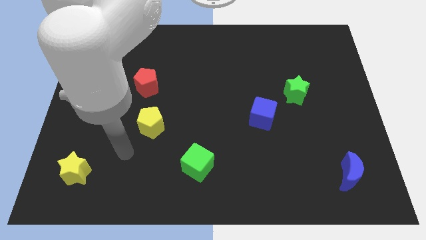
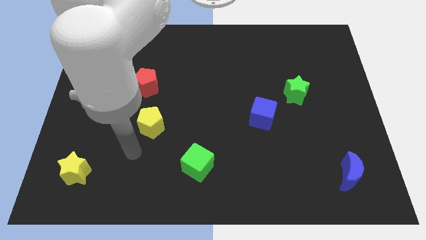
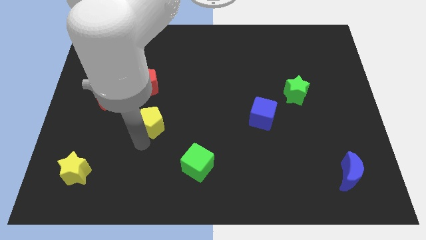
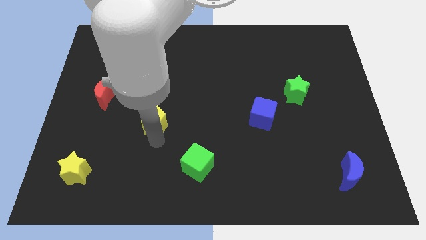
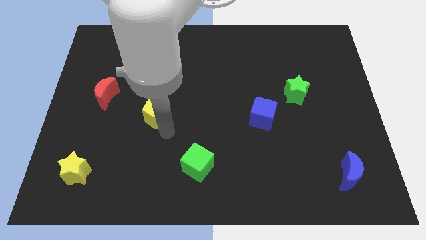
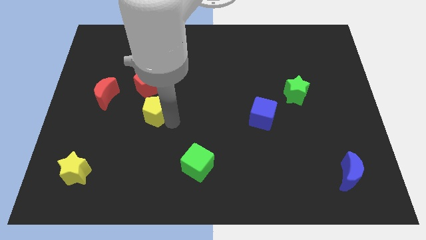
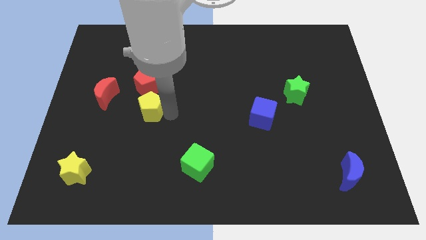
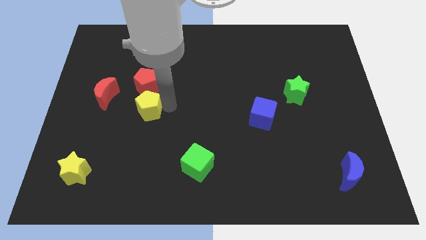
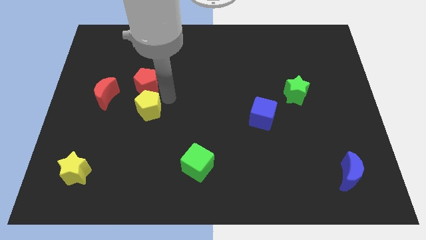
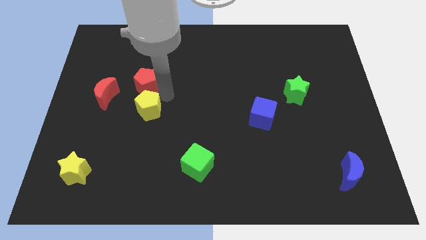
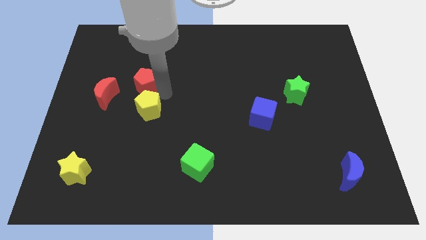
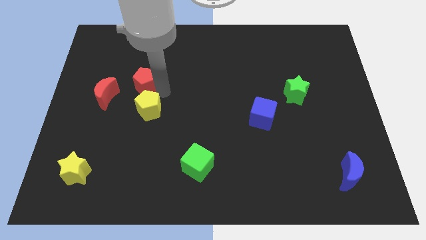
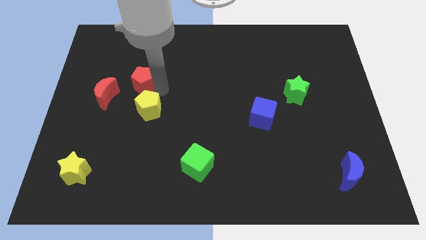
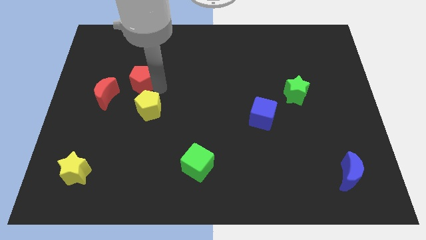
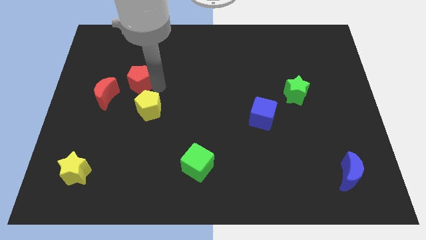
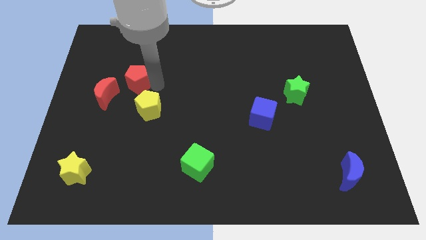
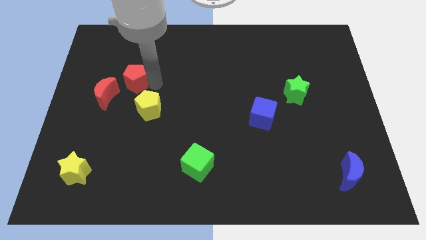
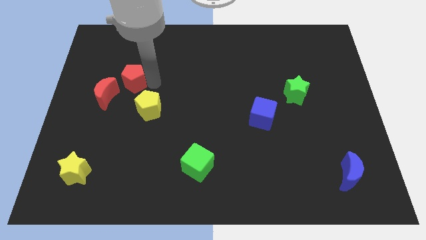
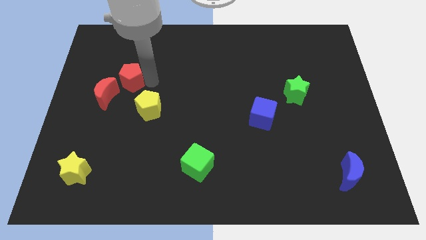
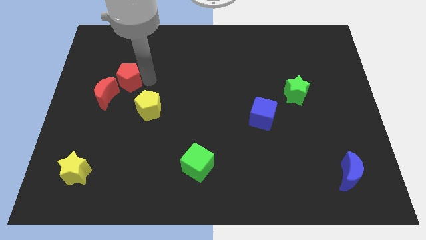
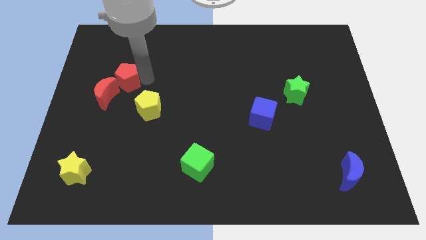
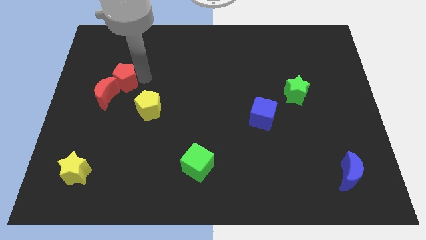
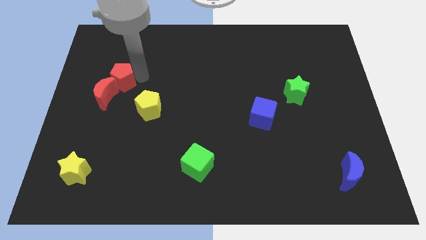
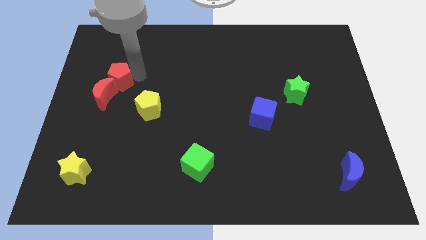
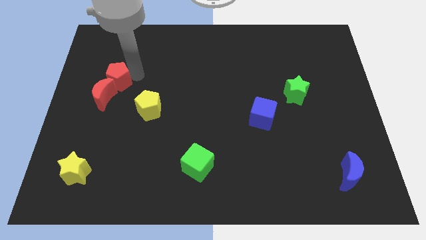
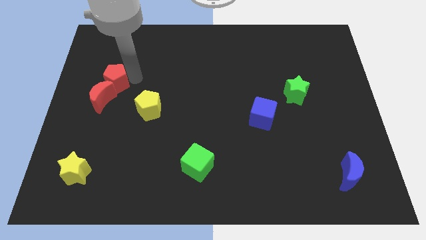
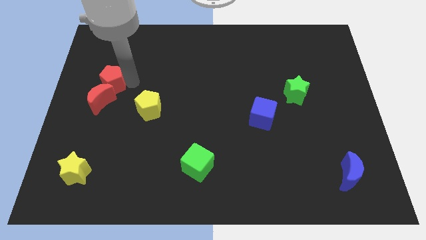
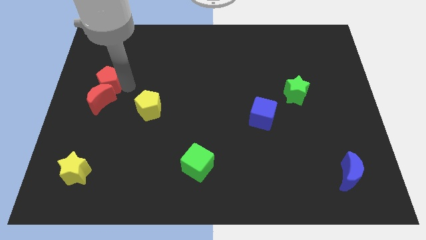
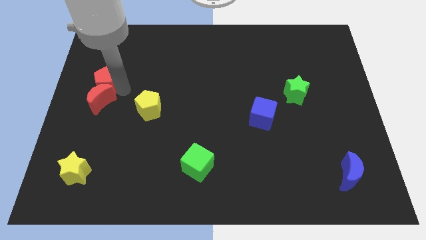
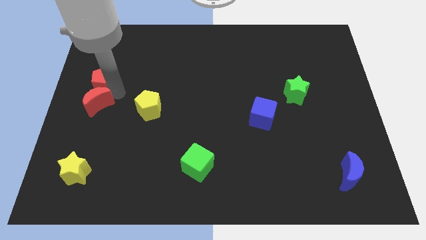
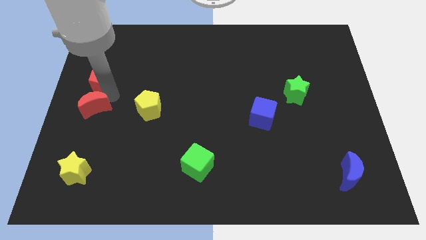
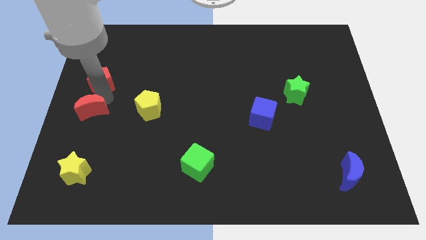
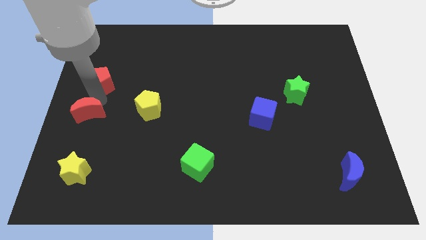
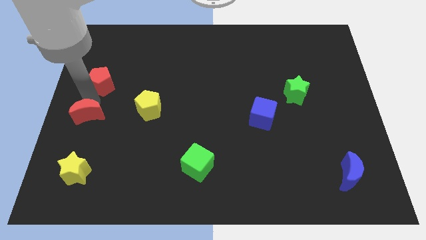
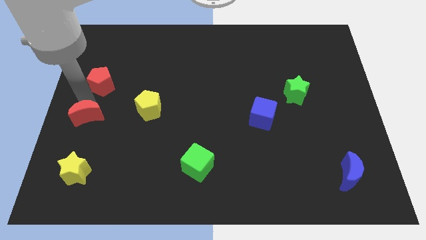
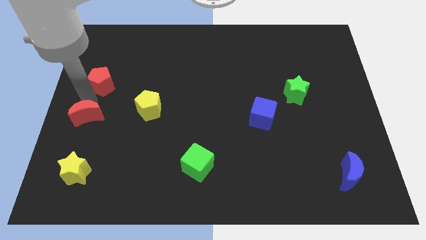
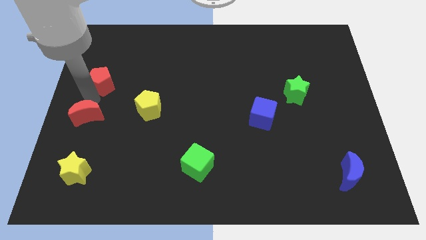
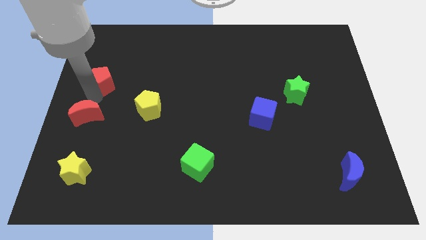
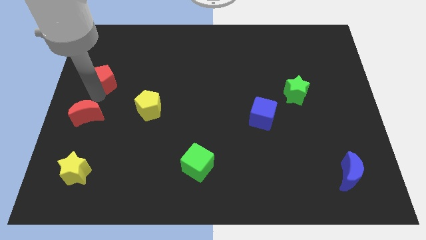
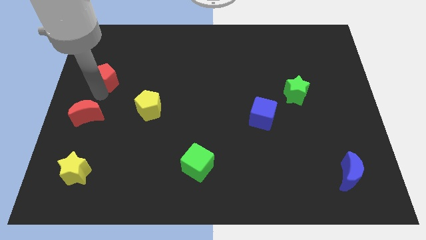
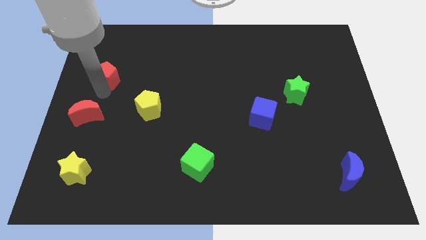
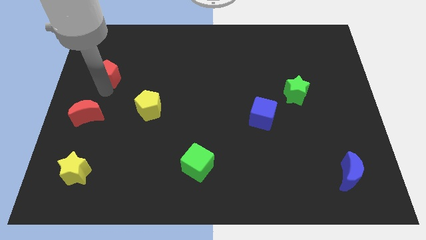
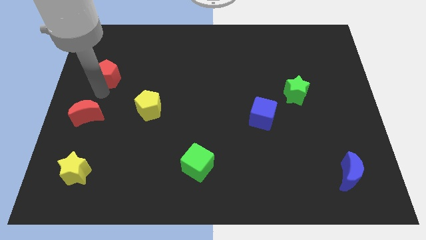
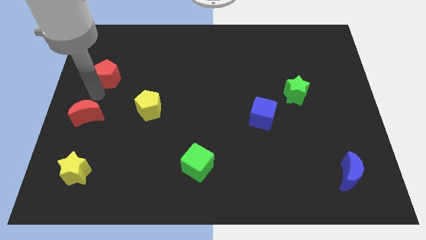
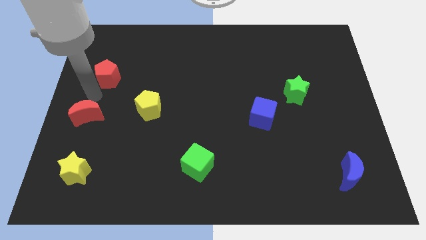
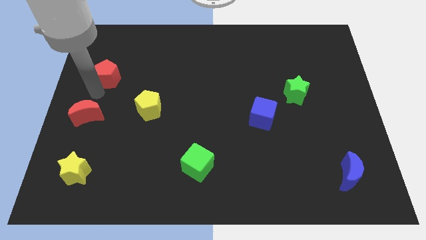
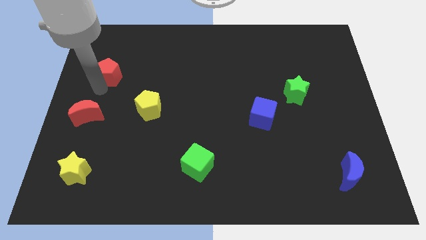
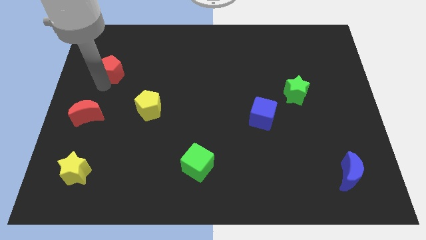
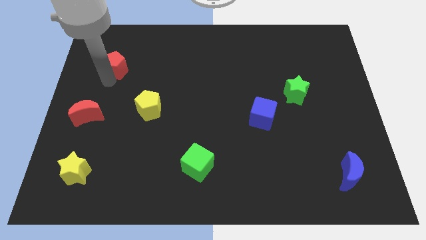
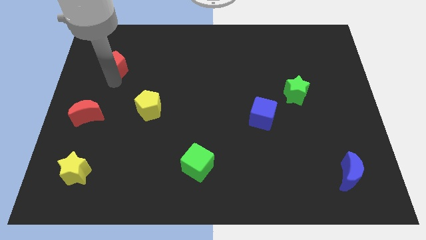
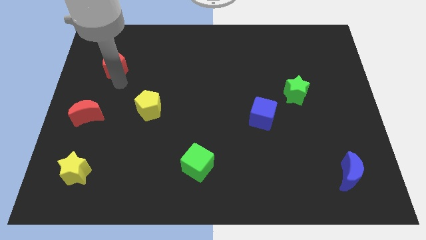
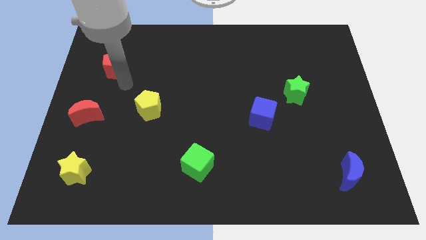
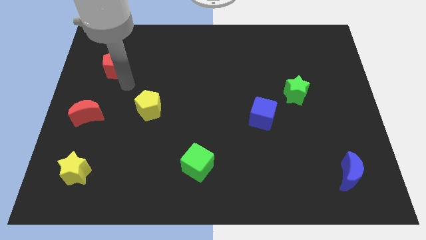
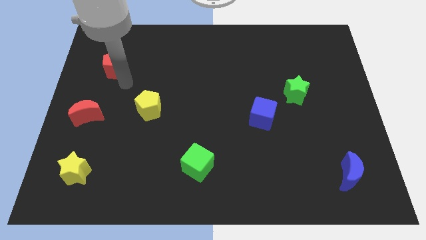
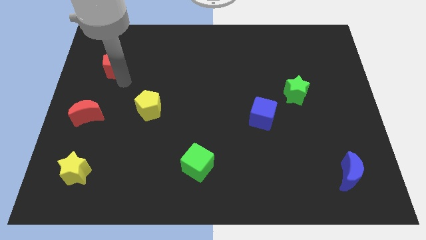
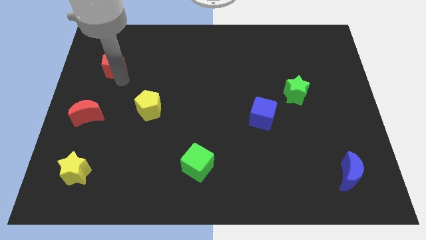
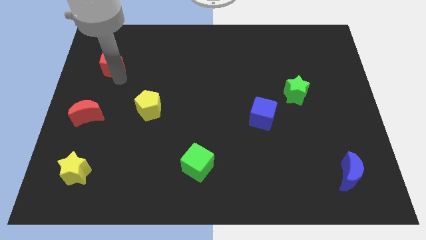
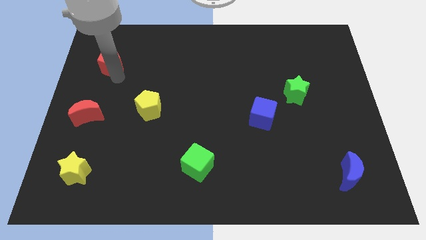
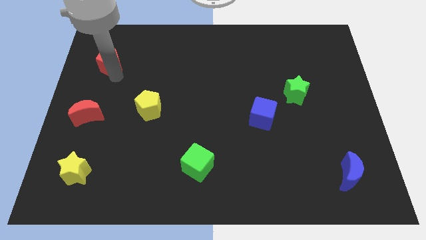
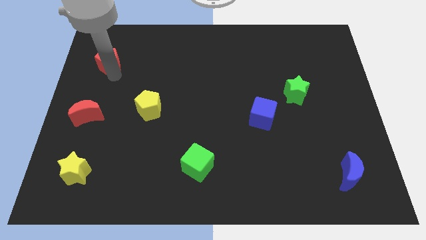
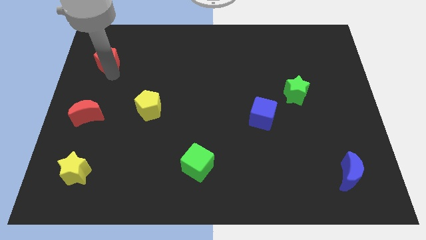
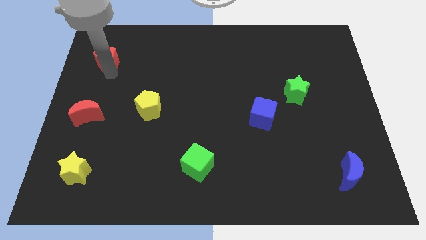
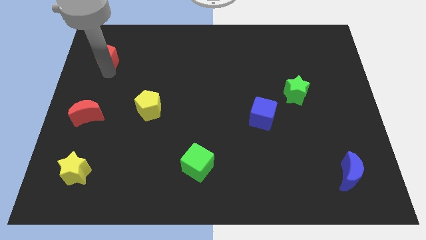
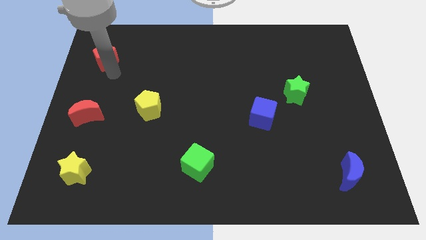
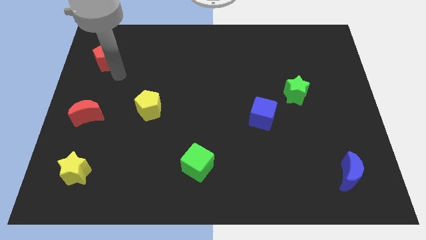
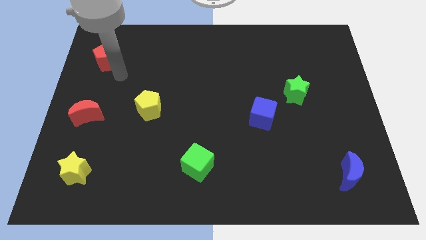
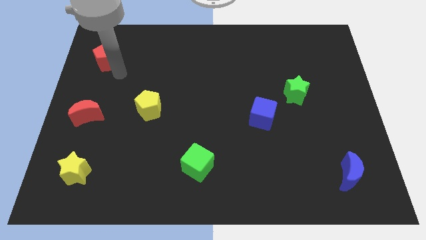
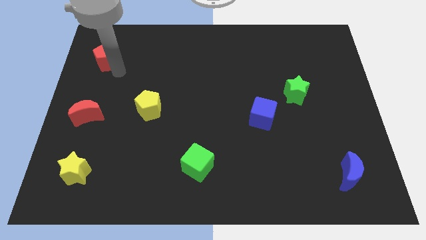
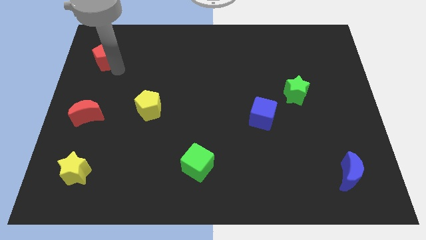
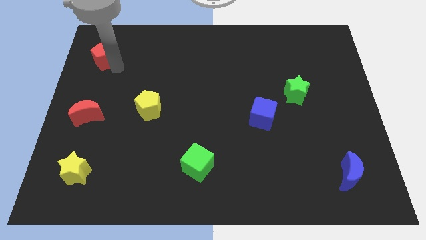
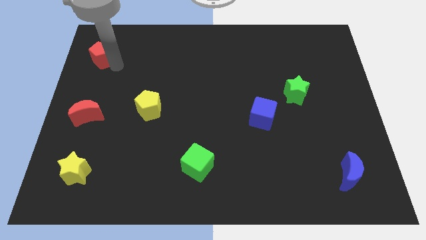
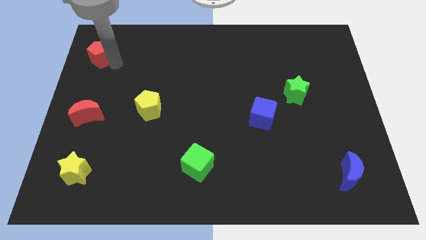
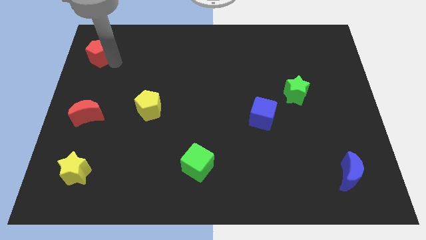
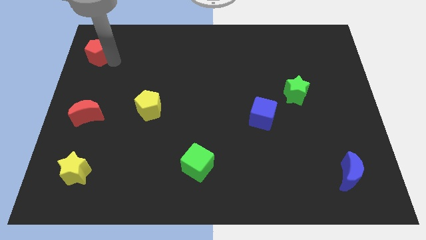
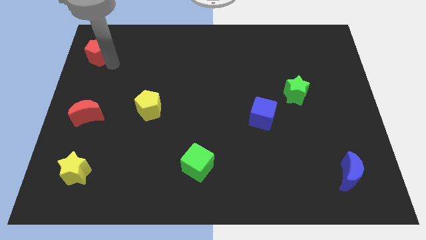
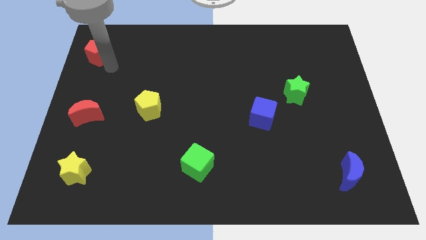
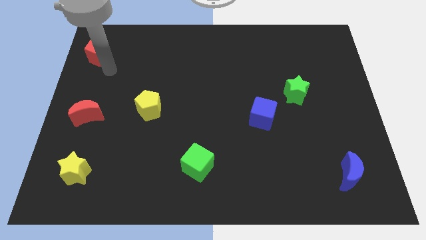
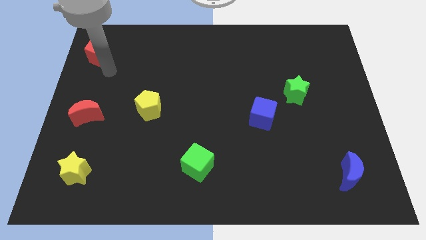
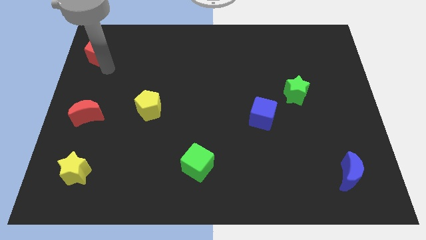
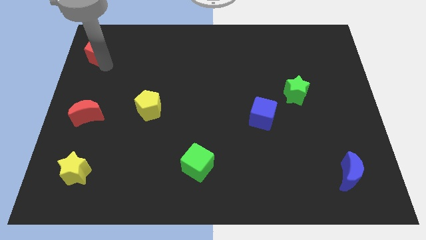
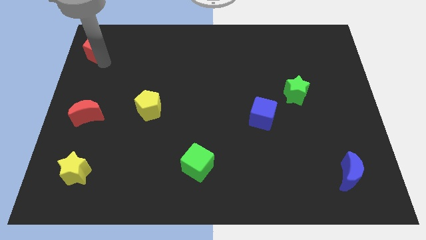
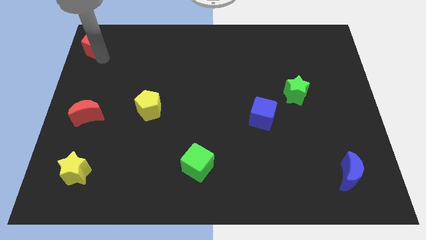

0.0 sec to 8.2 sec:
put the red pentagon to the top left
